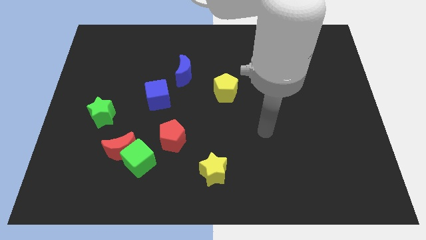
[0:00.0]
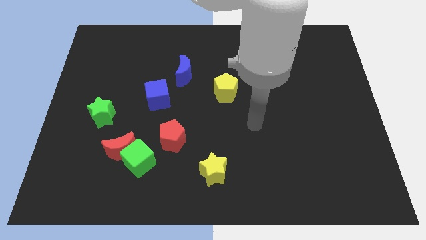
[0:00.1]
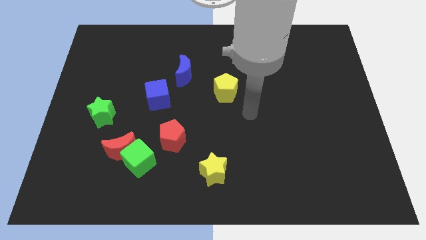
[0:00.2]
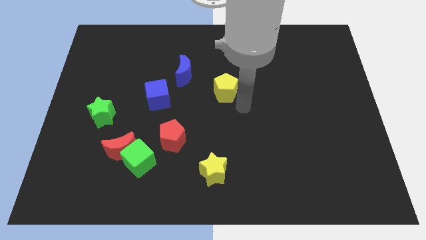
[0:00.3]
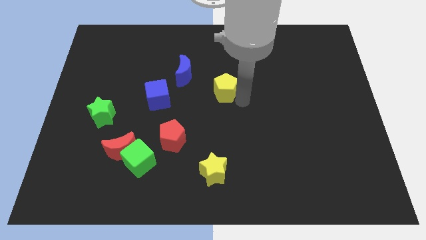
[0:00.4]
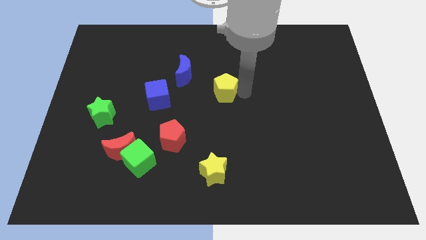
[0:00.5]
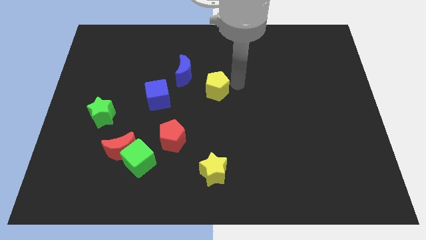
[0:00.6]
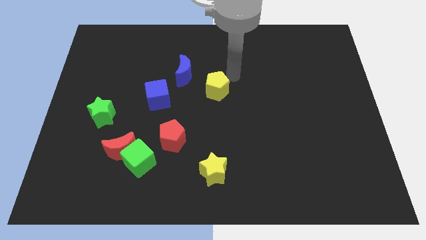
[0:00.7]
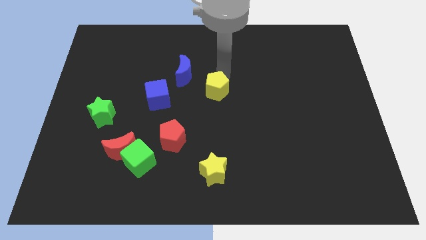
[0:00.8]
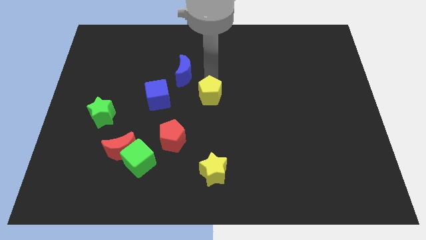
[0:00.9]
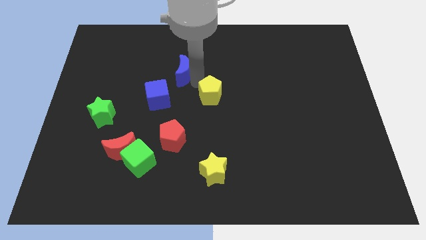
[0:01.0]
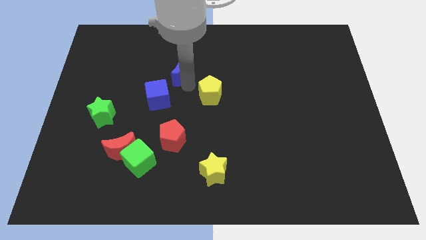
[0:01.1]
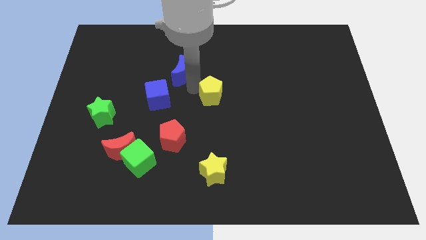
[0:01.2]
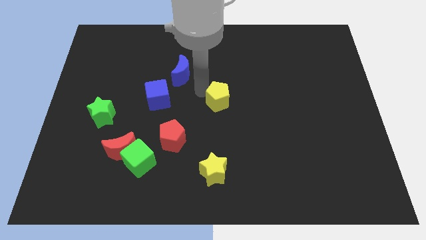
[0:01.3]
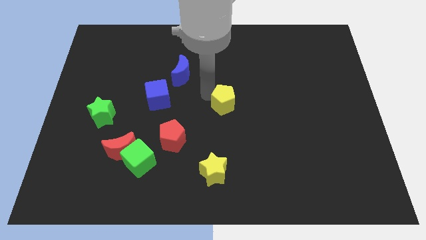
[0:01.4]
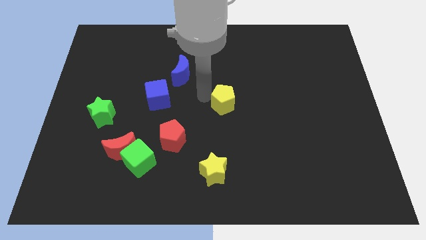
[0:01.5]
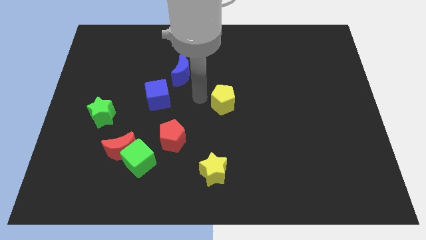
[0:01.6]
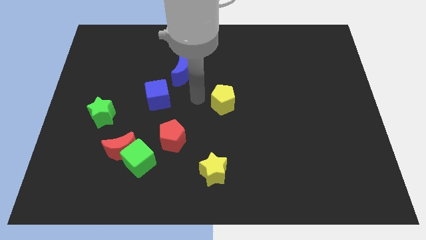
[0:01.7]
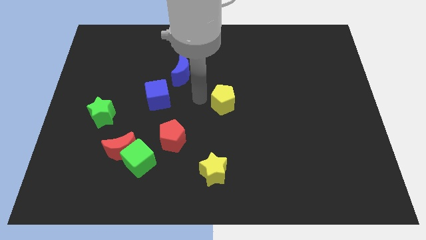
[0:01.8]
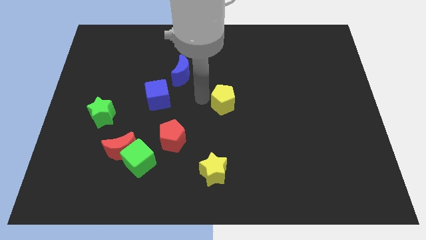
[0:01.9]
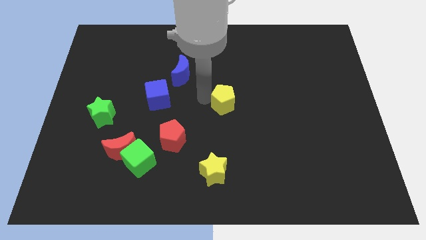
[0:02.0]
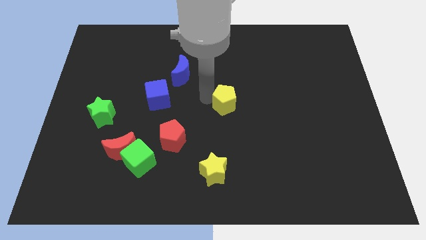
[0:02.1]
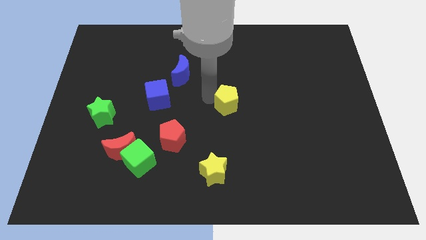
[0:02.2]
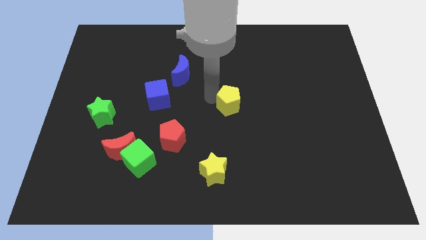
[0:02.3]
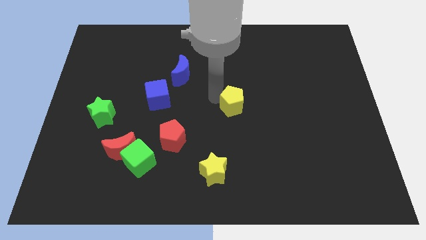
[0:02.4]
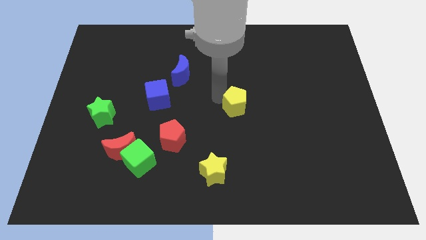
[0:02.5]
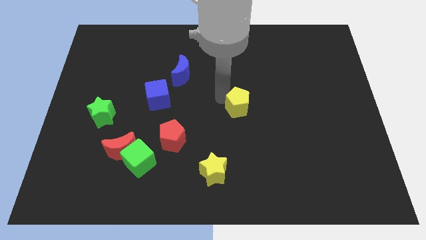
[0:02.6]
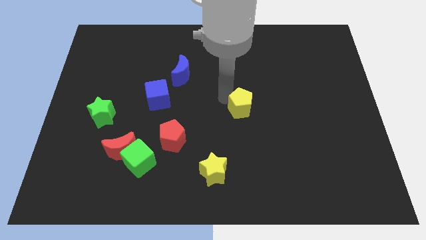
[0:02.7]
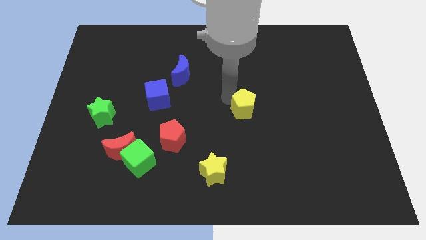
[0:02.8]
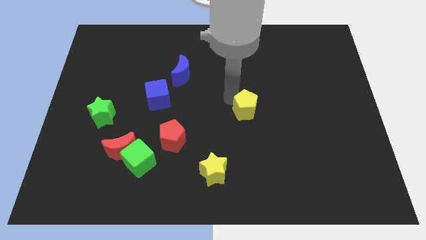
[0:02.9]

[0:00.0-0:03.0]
slide the yellow pentagon diagonally downwards and to the right a bit

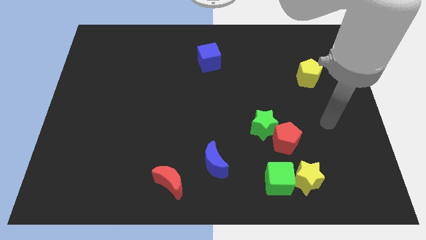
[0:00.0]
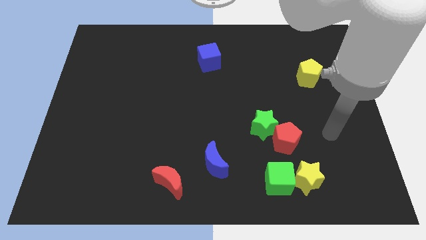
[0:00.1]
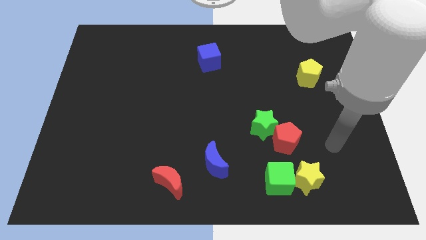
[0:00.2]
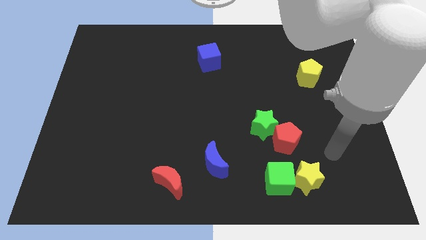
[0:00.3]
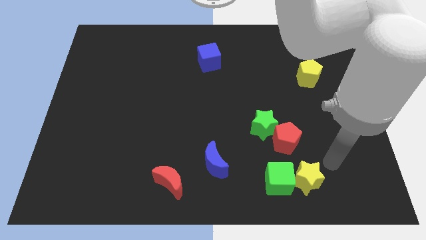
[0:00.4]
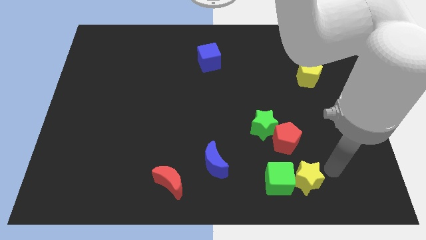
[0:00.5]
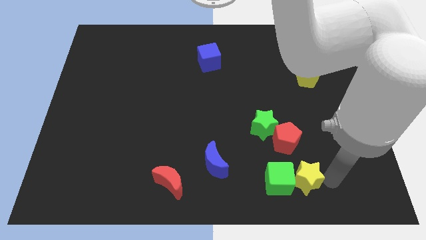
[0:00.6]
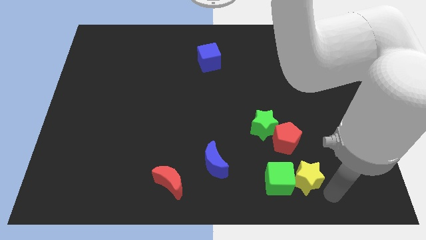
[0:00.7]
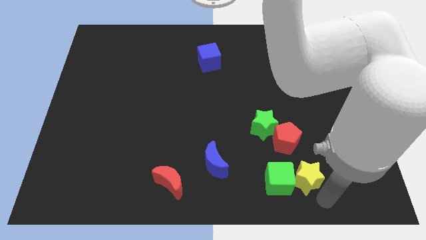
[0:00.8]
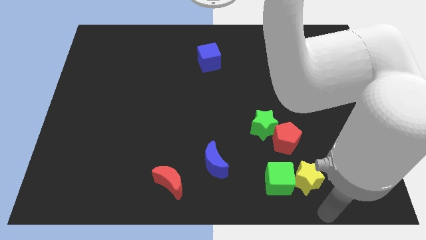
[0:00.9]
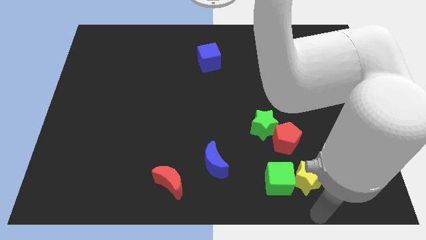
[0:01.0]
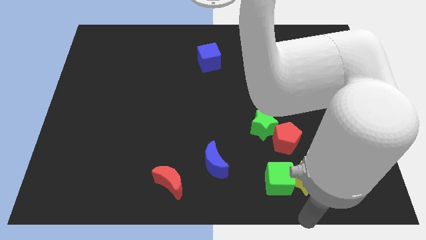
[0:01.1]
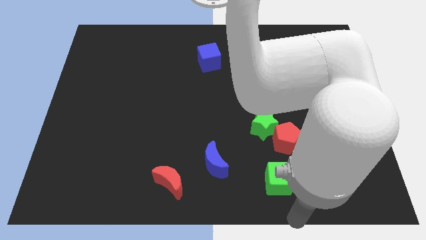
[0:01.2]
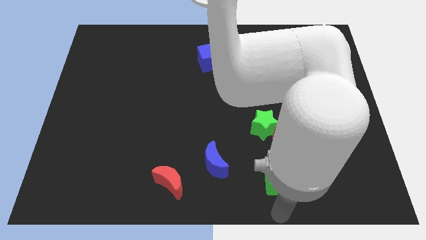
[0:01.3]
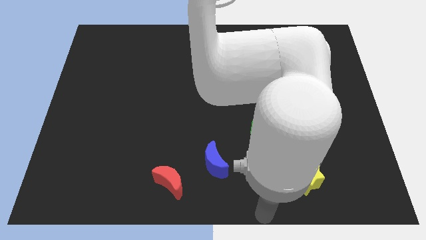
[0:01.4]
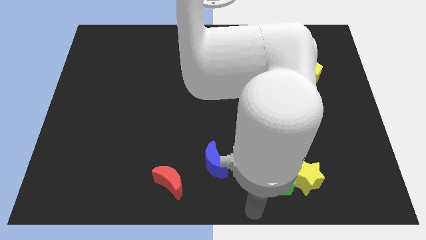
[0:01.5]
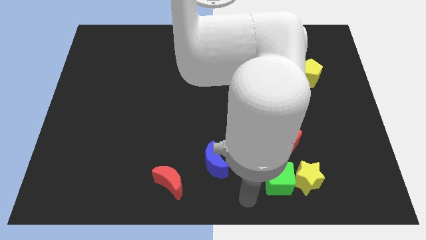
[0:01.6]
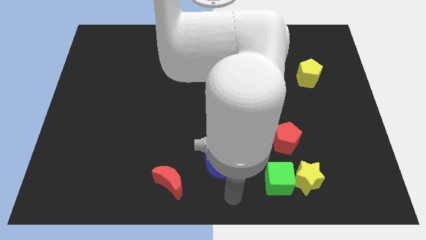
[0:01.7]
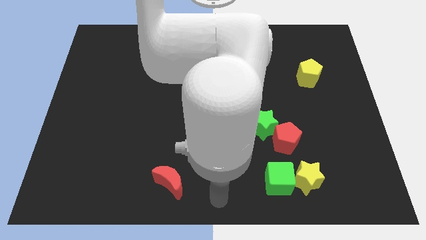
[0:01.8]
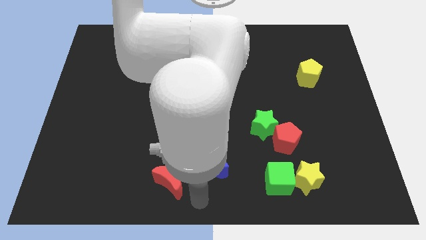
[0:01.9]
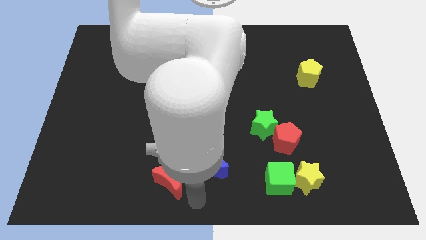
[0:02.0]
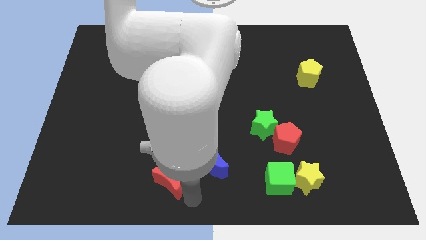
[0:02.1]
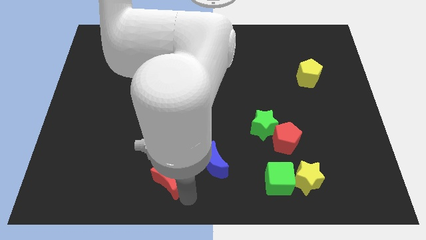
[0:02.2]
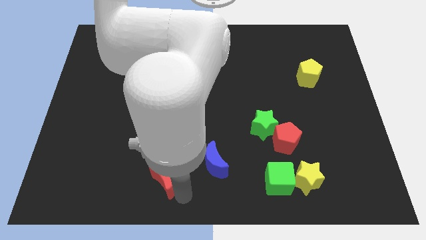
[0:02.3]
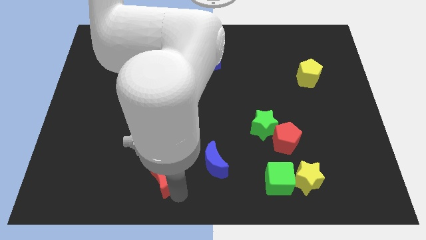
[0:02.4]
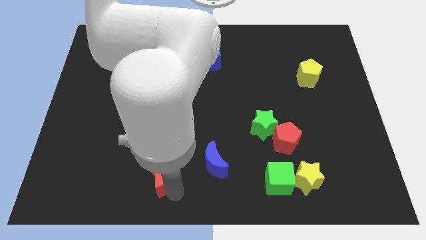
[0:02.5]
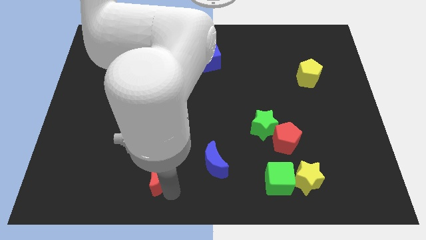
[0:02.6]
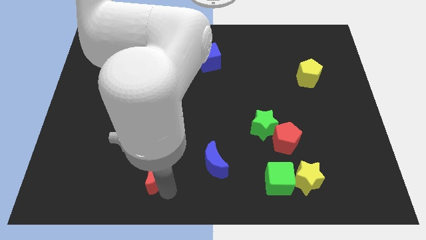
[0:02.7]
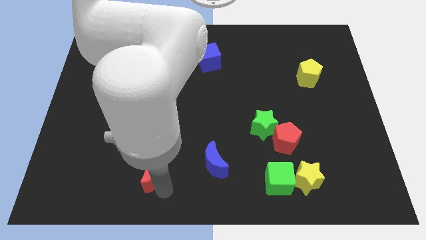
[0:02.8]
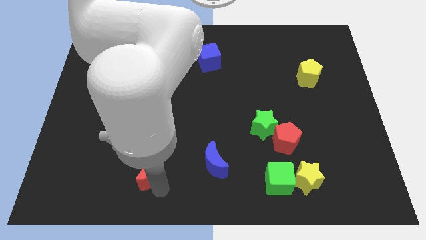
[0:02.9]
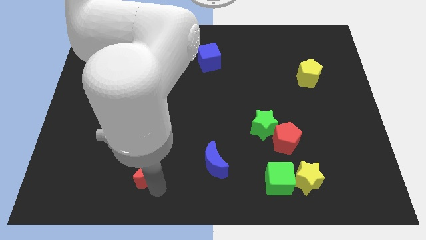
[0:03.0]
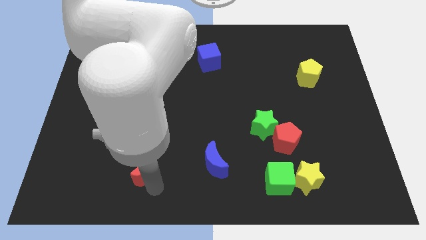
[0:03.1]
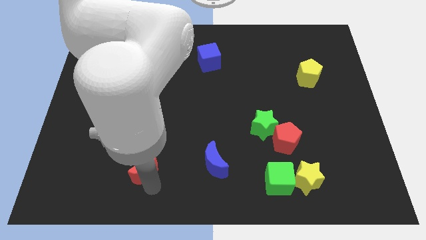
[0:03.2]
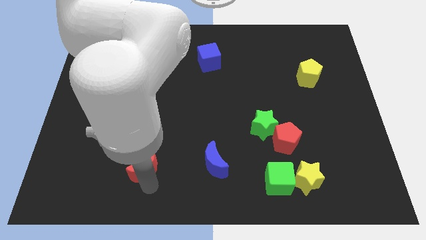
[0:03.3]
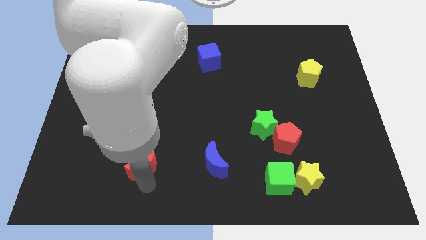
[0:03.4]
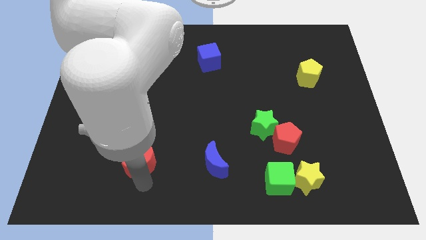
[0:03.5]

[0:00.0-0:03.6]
slide the red moon a little upwards and left diagonally

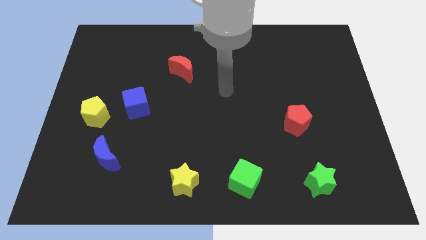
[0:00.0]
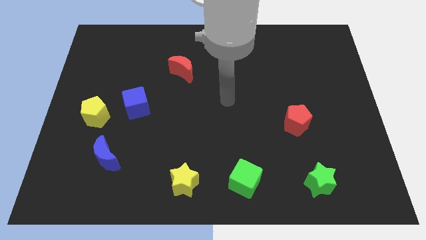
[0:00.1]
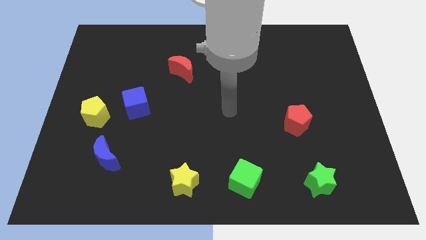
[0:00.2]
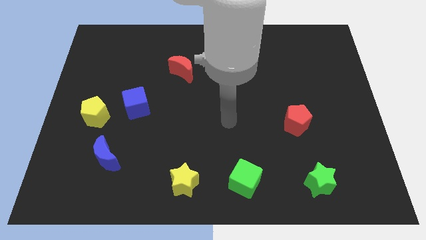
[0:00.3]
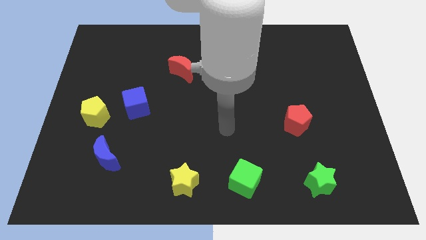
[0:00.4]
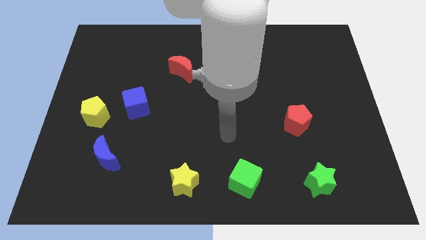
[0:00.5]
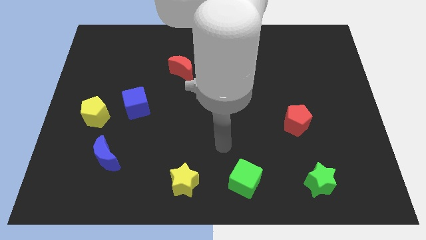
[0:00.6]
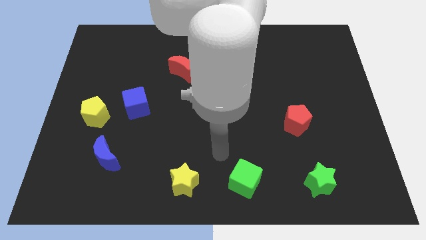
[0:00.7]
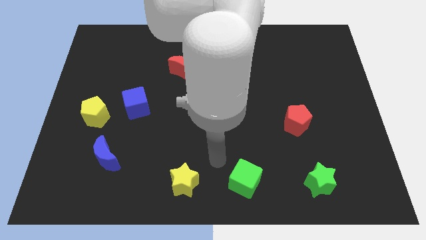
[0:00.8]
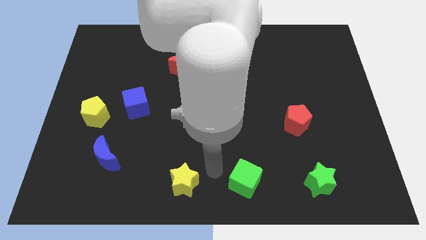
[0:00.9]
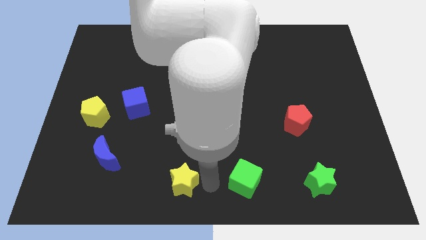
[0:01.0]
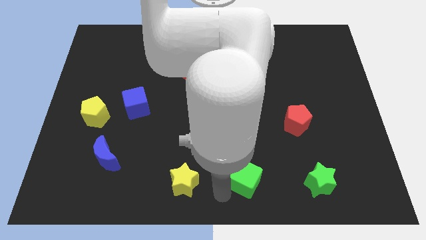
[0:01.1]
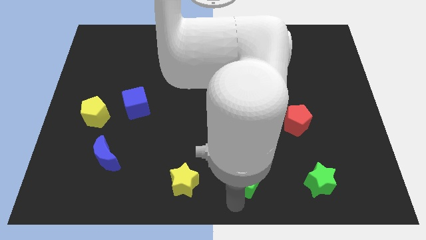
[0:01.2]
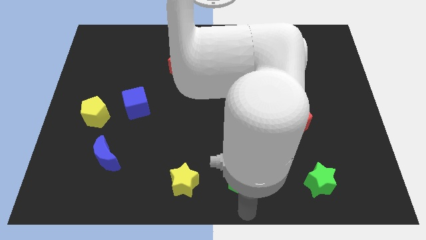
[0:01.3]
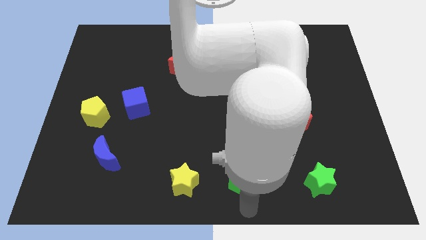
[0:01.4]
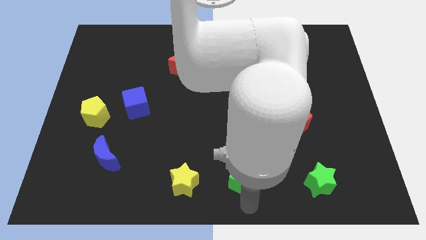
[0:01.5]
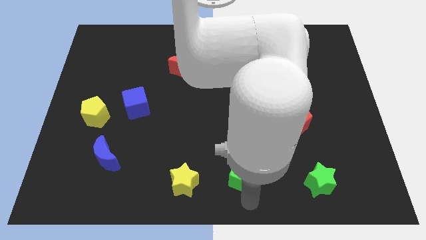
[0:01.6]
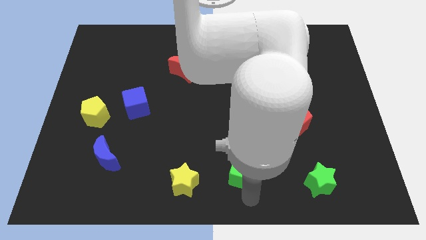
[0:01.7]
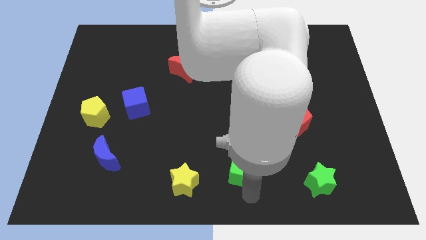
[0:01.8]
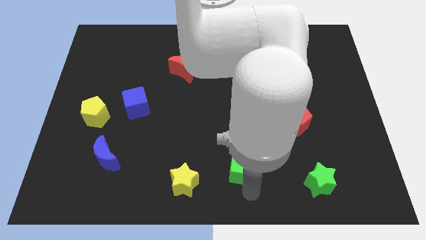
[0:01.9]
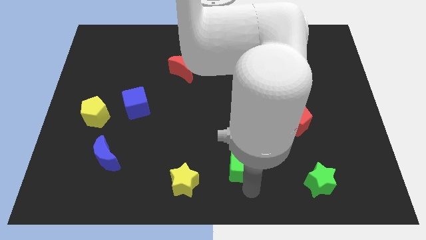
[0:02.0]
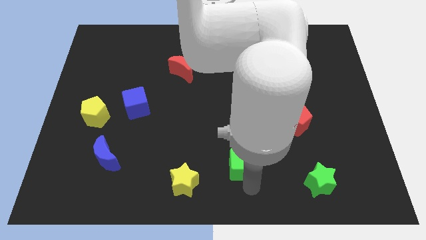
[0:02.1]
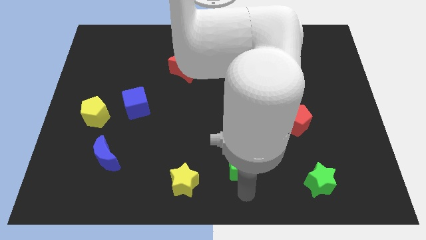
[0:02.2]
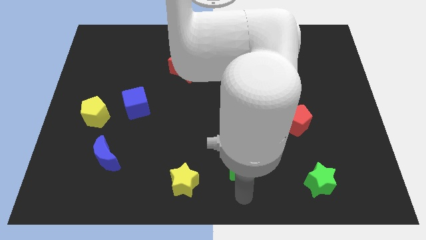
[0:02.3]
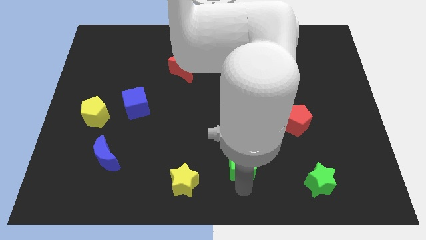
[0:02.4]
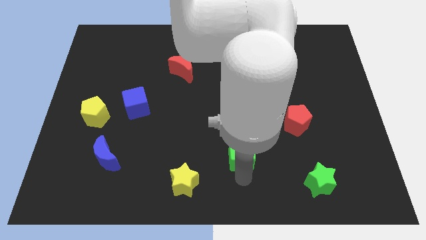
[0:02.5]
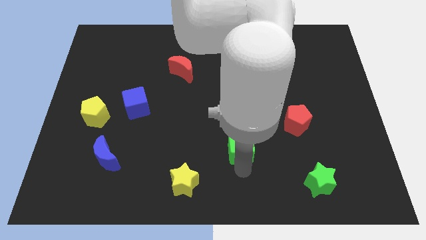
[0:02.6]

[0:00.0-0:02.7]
push the green cube a little up
